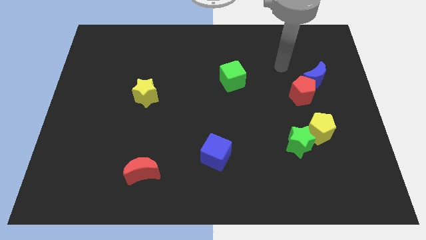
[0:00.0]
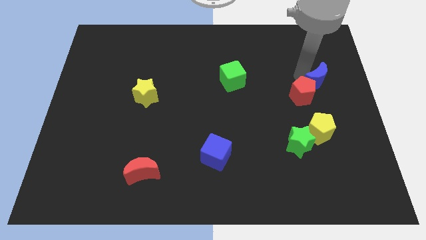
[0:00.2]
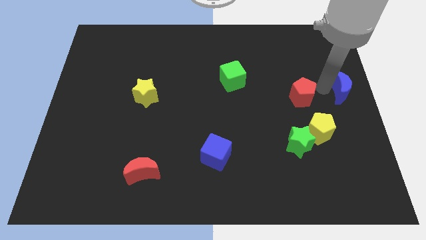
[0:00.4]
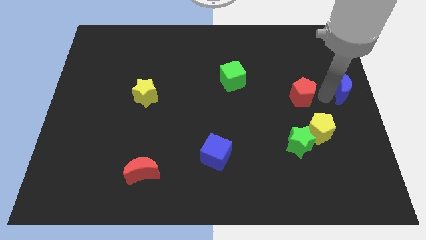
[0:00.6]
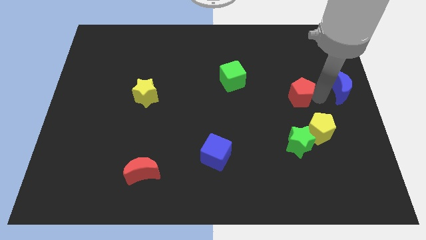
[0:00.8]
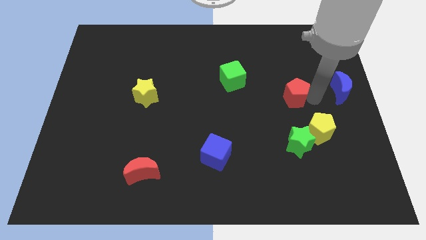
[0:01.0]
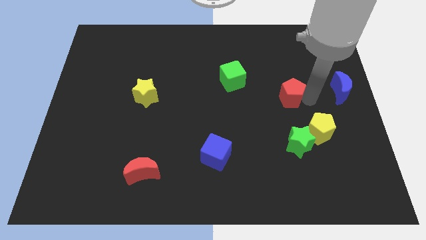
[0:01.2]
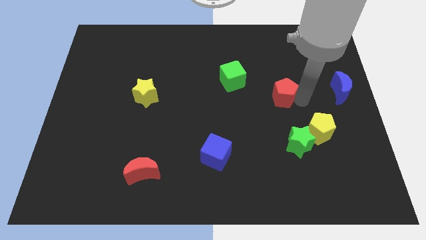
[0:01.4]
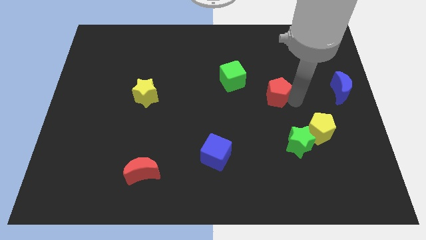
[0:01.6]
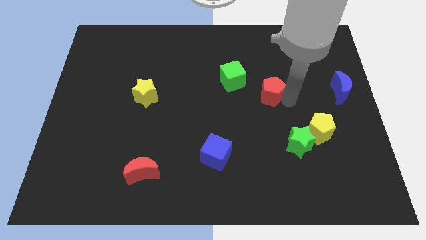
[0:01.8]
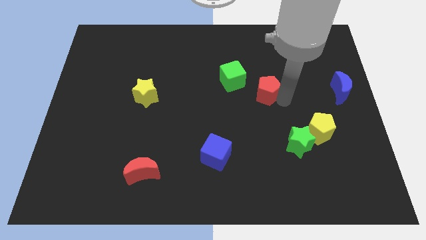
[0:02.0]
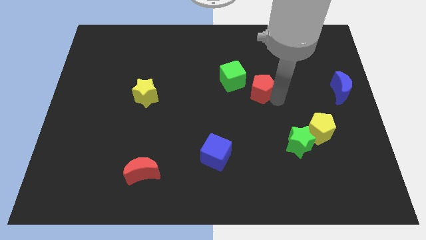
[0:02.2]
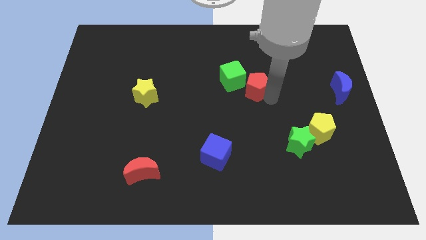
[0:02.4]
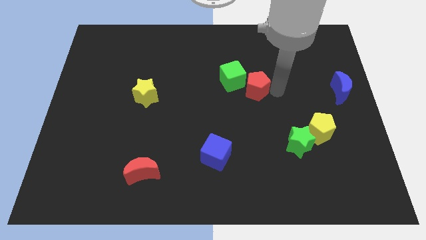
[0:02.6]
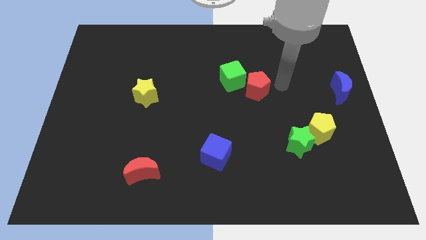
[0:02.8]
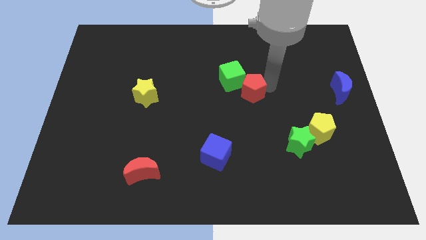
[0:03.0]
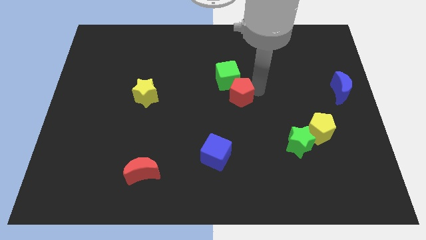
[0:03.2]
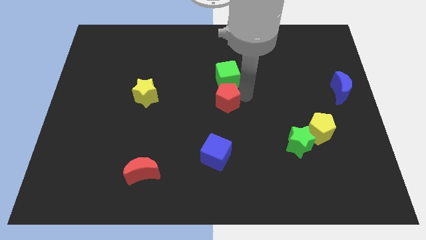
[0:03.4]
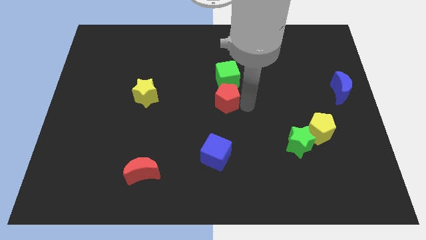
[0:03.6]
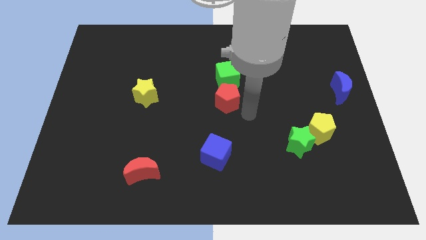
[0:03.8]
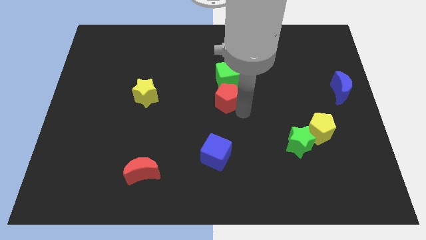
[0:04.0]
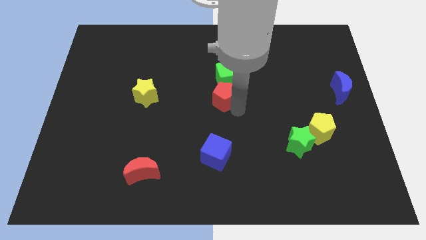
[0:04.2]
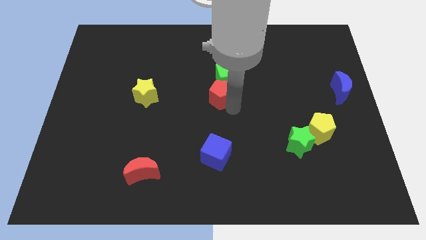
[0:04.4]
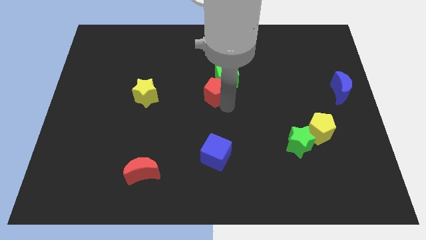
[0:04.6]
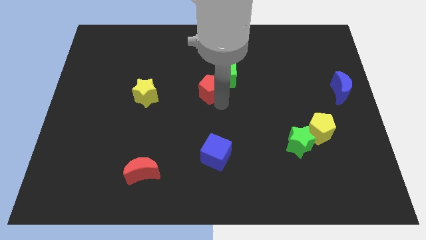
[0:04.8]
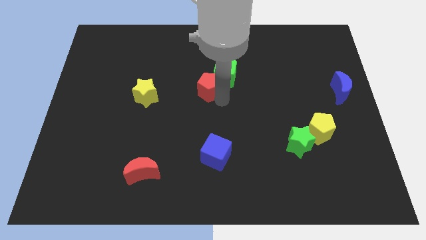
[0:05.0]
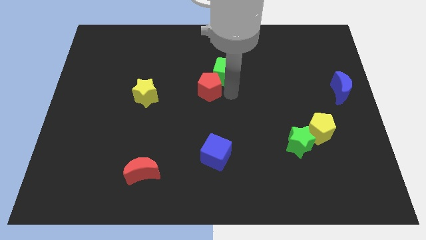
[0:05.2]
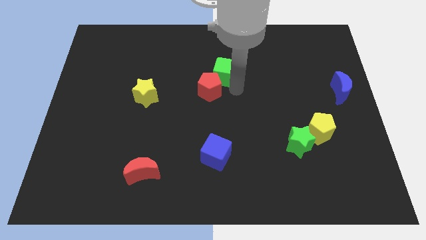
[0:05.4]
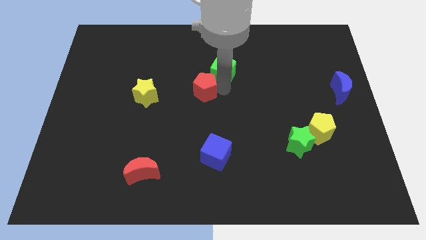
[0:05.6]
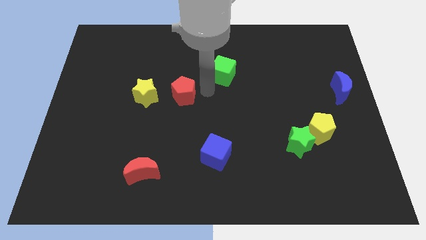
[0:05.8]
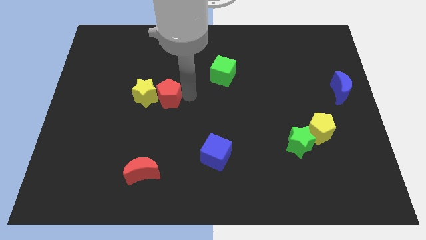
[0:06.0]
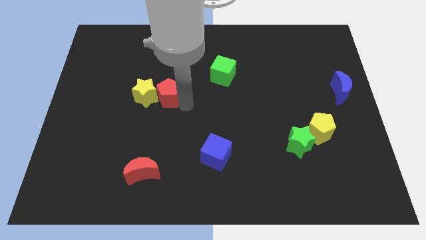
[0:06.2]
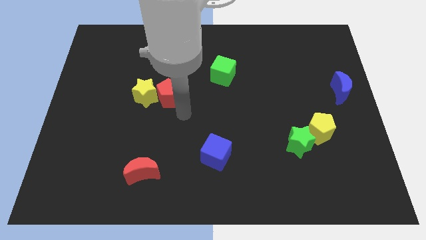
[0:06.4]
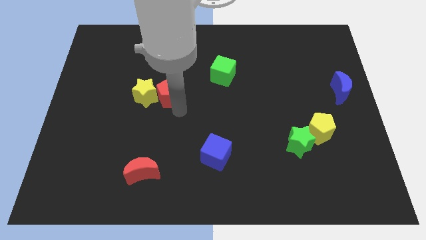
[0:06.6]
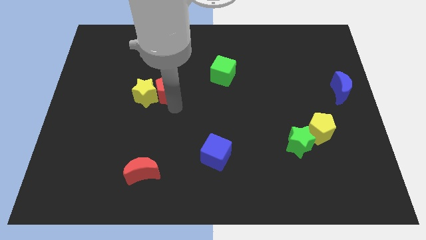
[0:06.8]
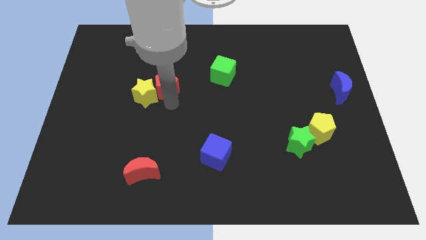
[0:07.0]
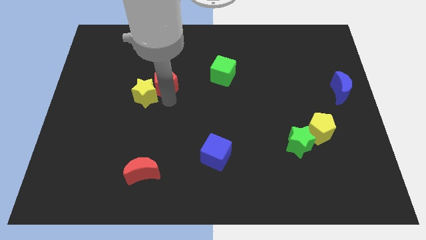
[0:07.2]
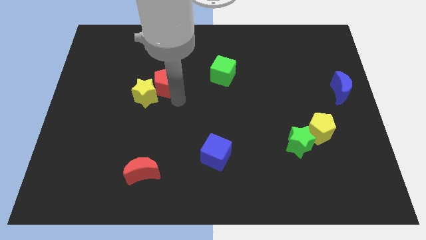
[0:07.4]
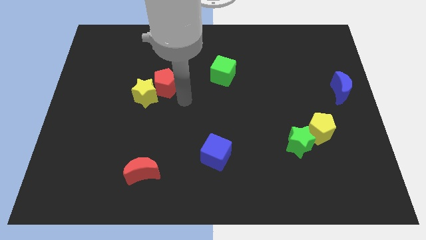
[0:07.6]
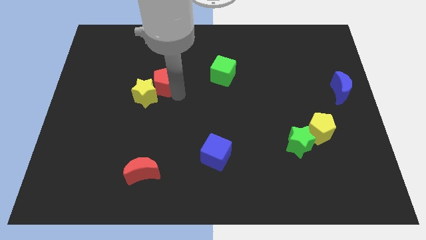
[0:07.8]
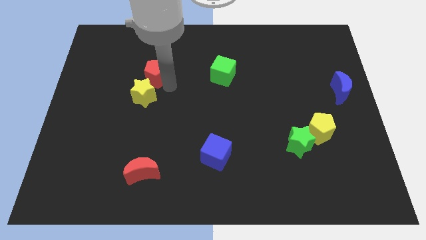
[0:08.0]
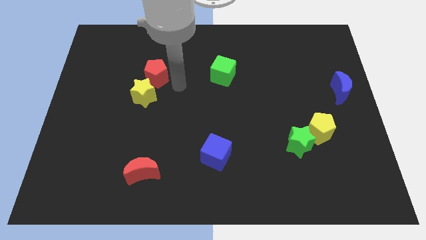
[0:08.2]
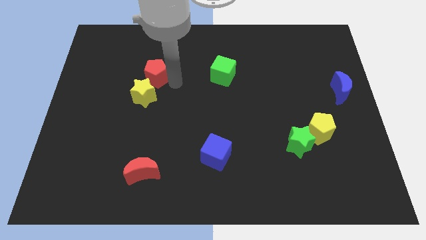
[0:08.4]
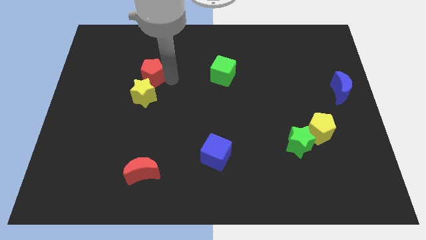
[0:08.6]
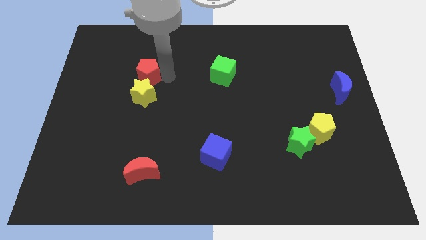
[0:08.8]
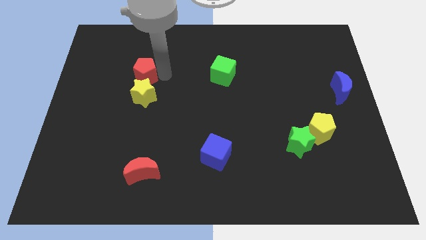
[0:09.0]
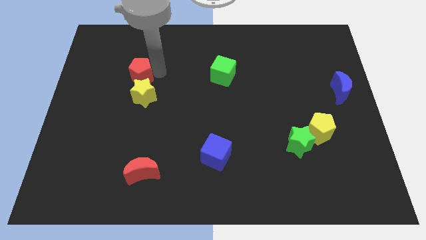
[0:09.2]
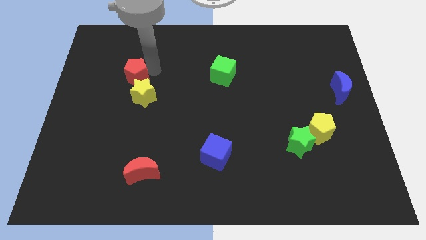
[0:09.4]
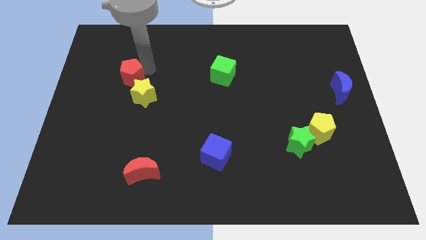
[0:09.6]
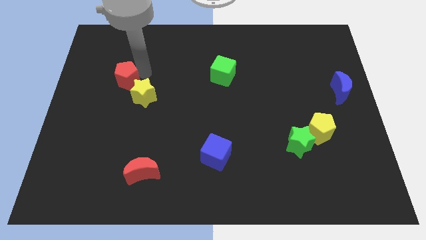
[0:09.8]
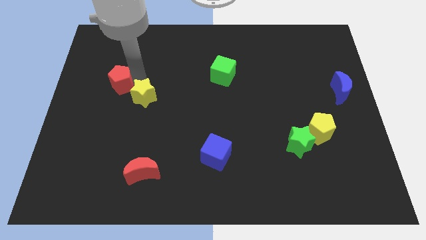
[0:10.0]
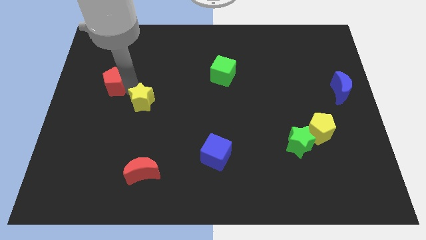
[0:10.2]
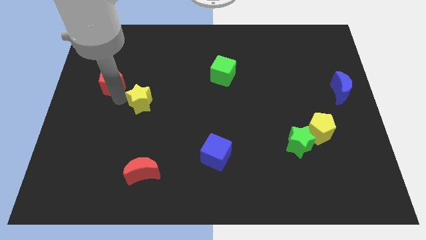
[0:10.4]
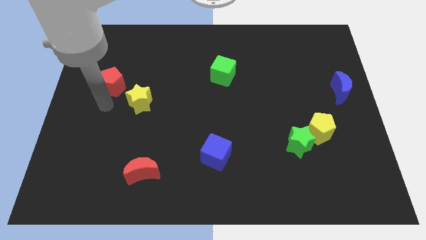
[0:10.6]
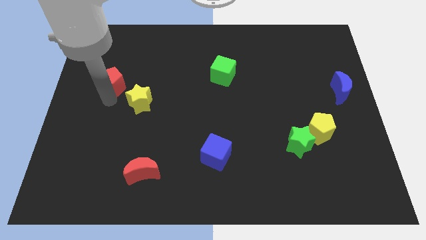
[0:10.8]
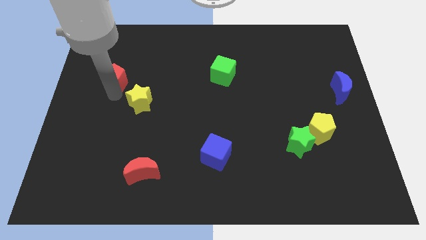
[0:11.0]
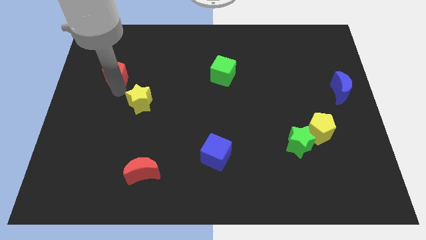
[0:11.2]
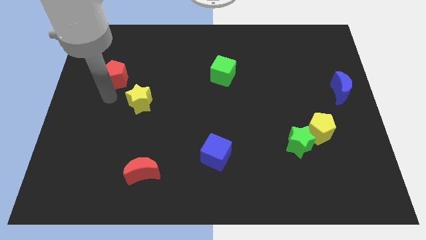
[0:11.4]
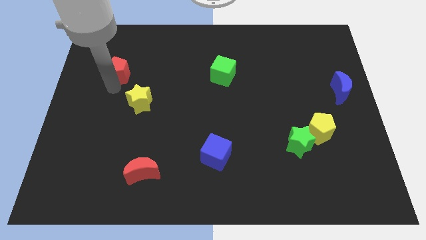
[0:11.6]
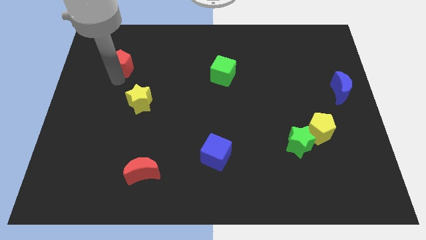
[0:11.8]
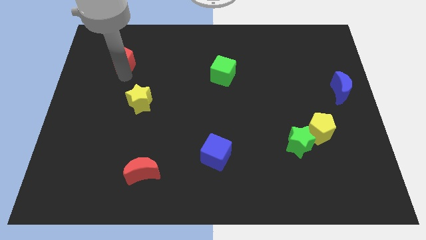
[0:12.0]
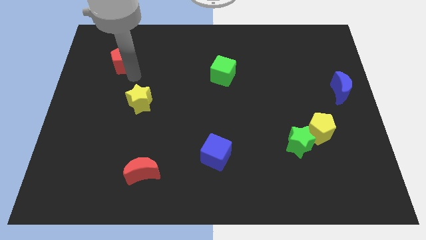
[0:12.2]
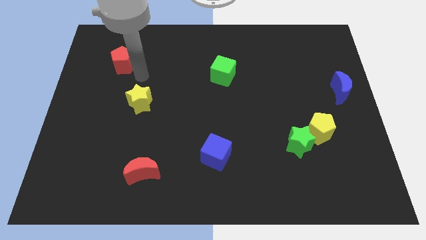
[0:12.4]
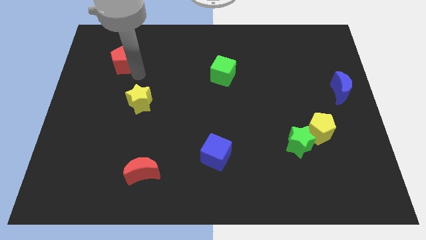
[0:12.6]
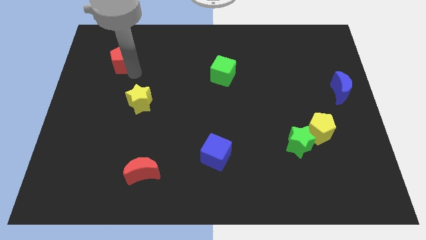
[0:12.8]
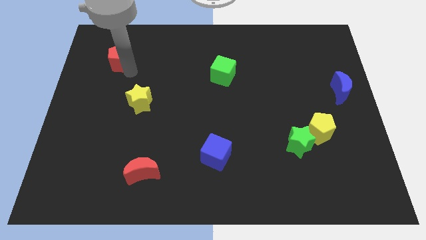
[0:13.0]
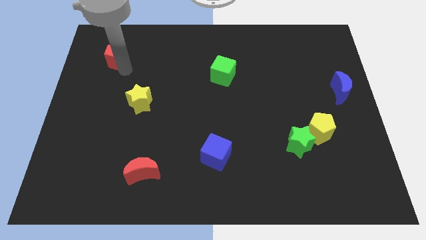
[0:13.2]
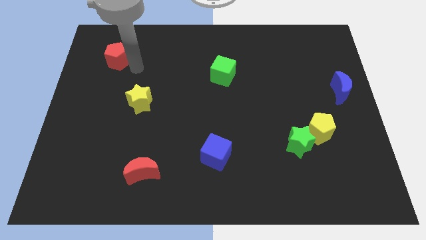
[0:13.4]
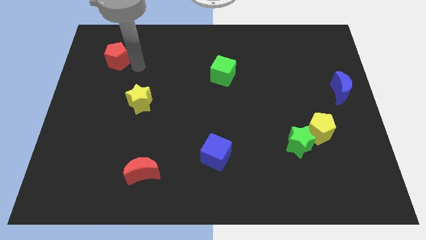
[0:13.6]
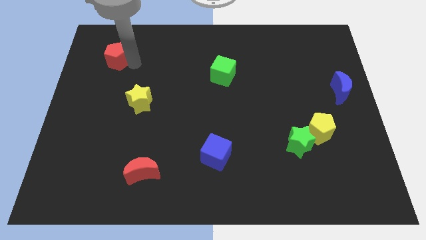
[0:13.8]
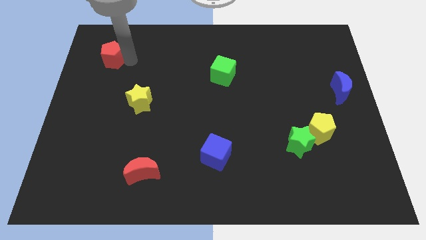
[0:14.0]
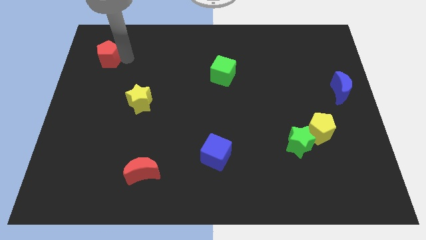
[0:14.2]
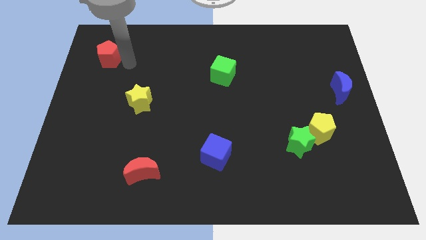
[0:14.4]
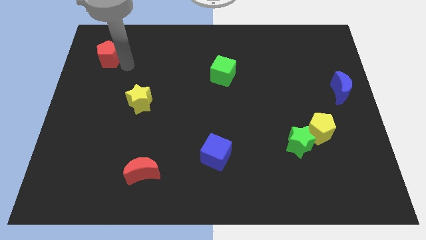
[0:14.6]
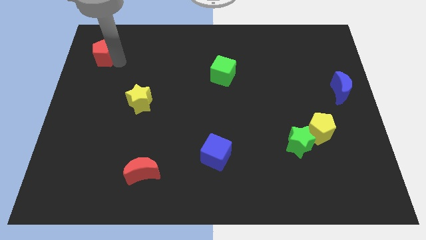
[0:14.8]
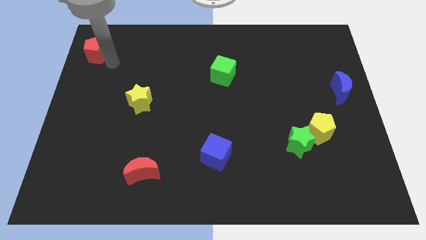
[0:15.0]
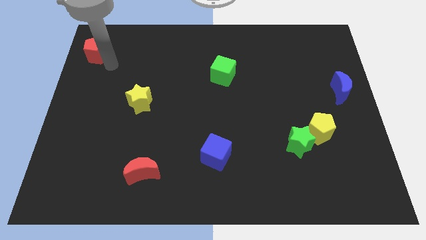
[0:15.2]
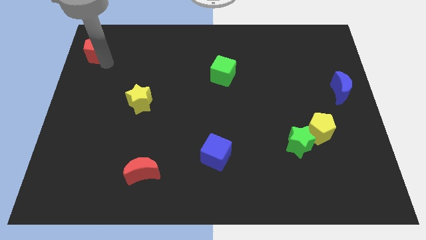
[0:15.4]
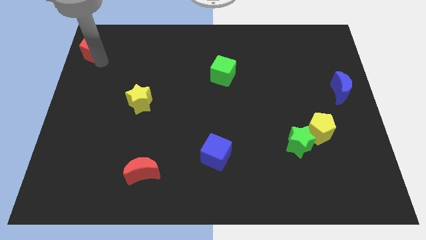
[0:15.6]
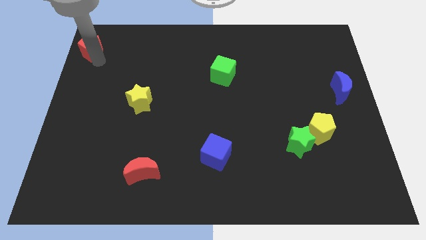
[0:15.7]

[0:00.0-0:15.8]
push the red pentagon to the top left corner
